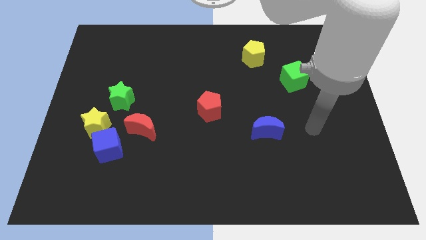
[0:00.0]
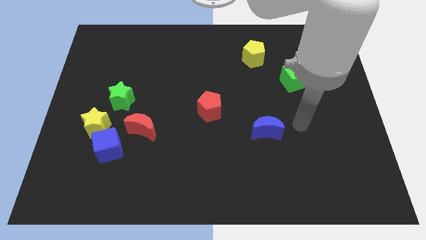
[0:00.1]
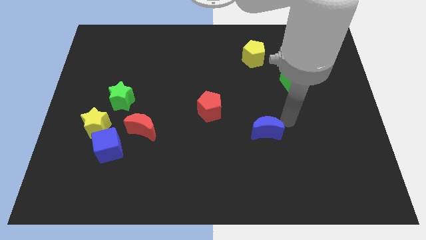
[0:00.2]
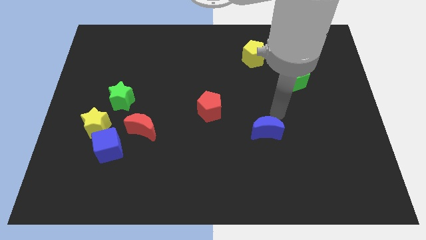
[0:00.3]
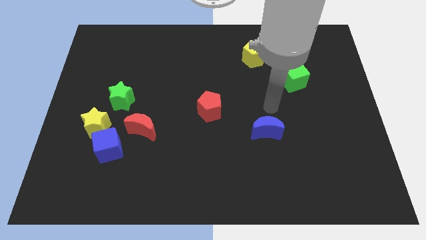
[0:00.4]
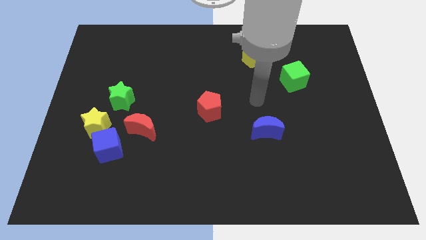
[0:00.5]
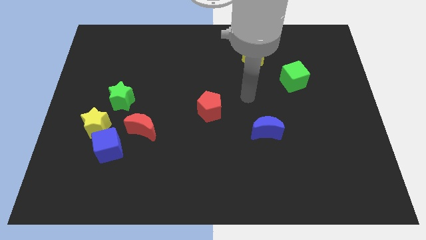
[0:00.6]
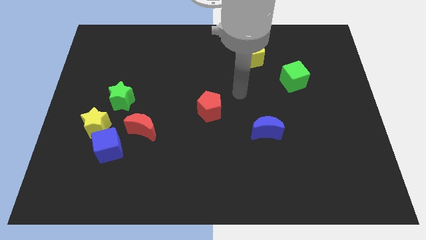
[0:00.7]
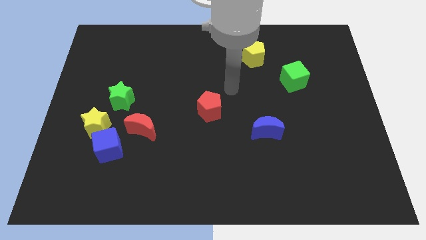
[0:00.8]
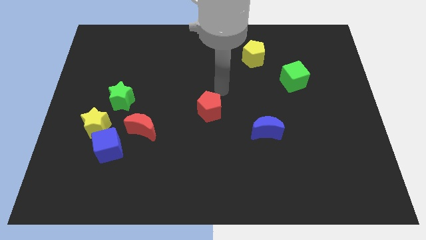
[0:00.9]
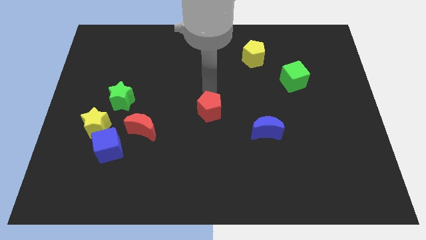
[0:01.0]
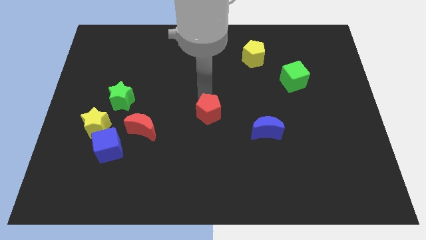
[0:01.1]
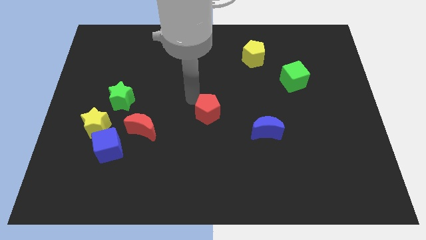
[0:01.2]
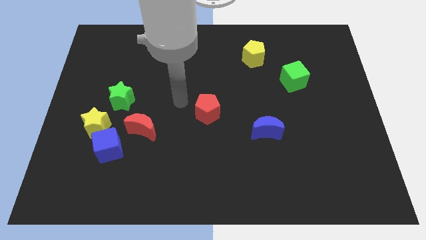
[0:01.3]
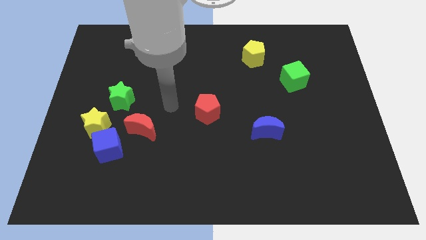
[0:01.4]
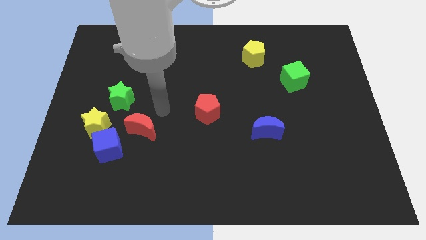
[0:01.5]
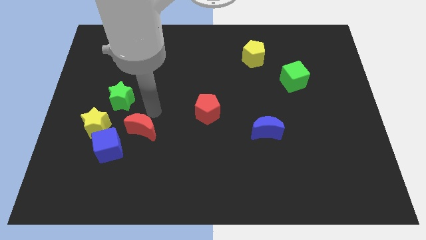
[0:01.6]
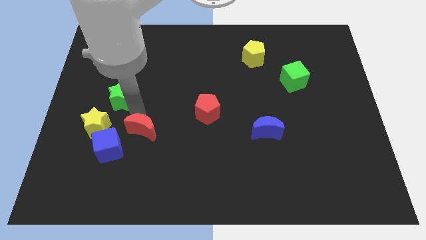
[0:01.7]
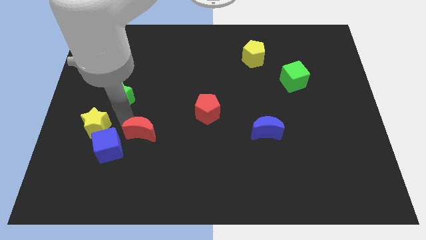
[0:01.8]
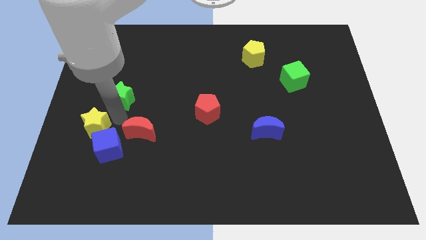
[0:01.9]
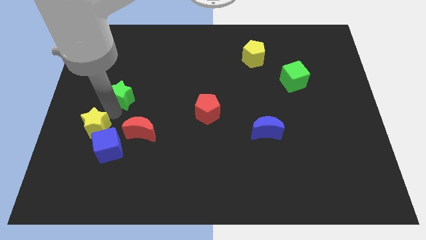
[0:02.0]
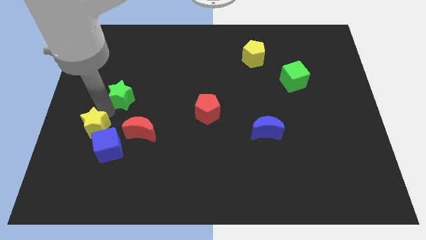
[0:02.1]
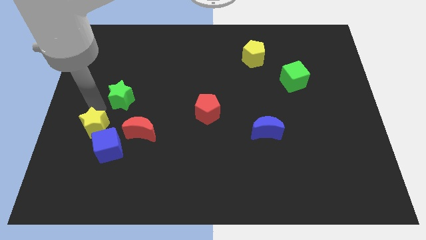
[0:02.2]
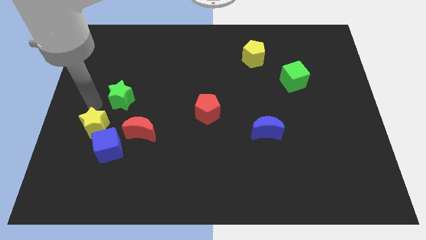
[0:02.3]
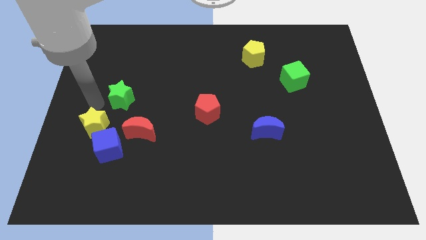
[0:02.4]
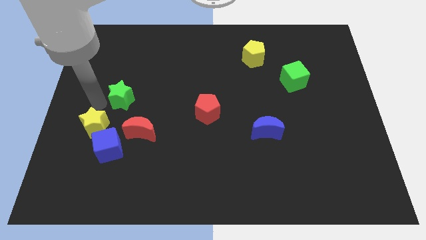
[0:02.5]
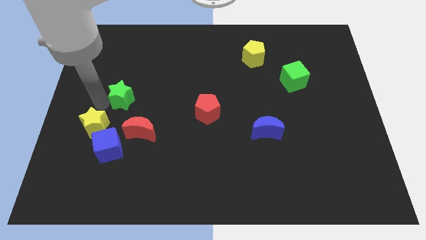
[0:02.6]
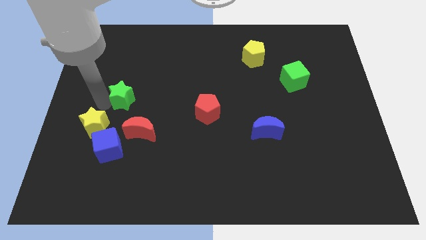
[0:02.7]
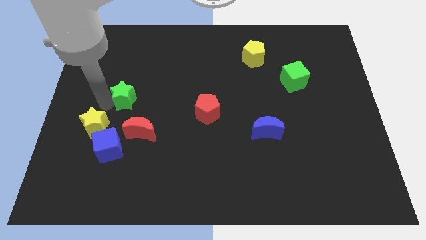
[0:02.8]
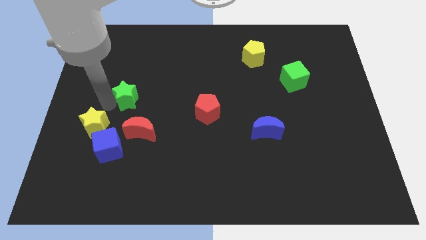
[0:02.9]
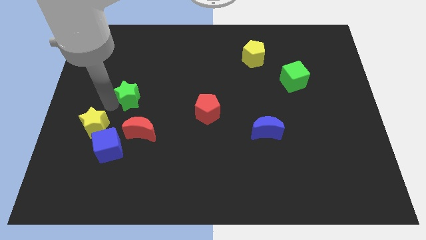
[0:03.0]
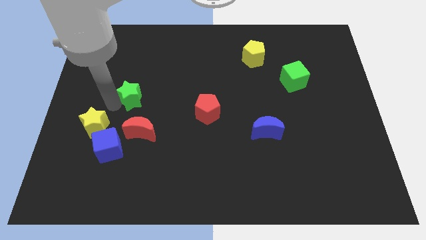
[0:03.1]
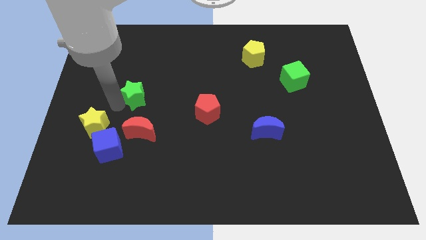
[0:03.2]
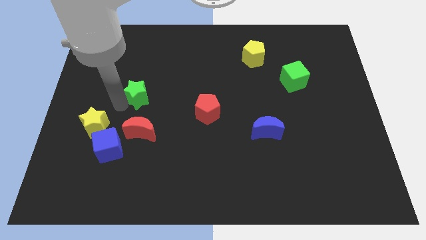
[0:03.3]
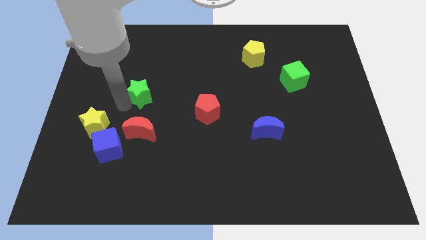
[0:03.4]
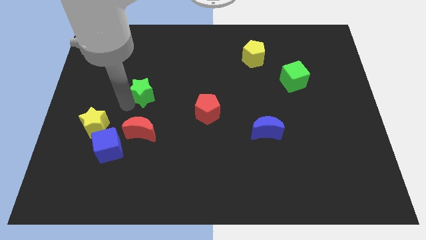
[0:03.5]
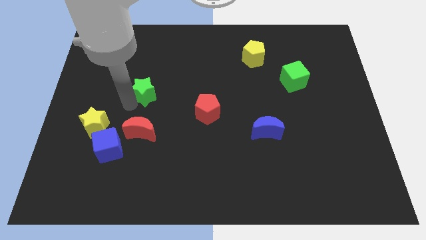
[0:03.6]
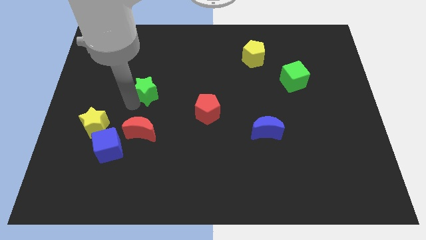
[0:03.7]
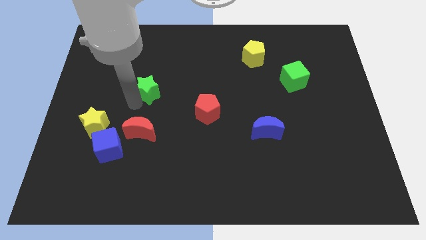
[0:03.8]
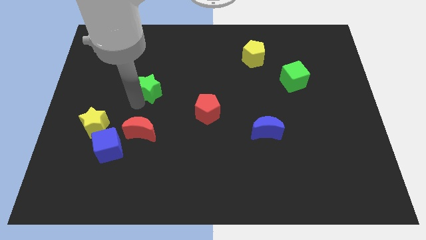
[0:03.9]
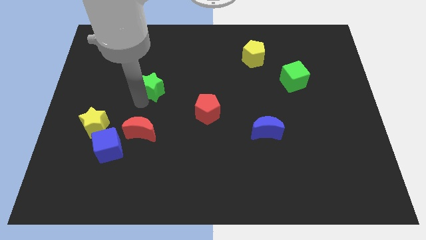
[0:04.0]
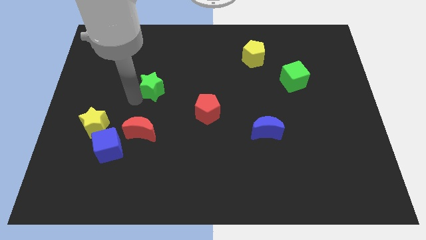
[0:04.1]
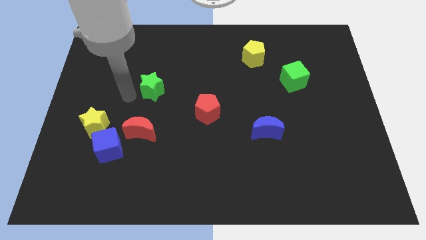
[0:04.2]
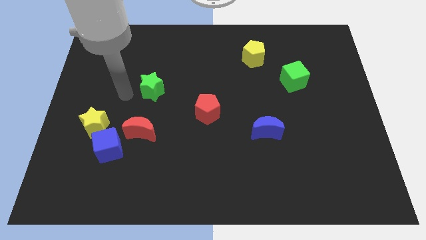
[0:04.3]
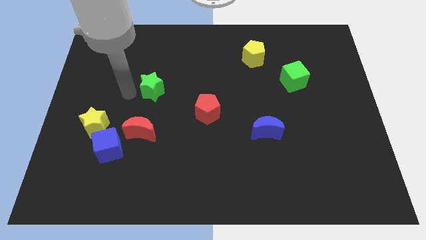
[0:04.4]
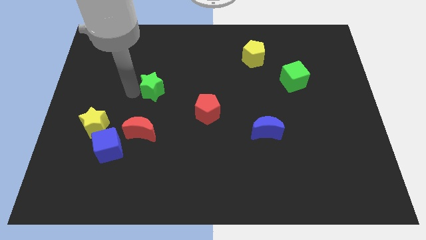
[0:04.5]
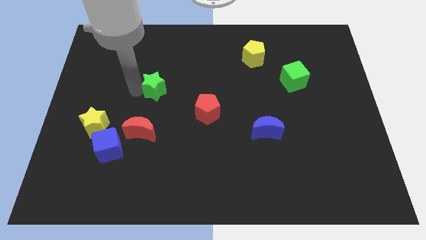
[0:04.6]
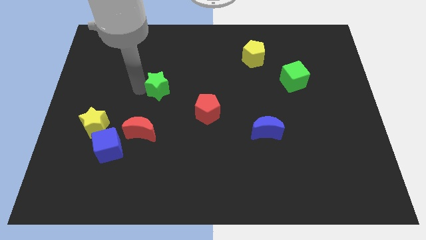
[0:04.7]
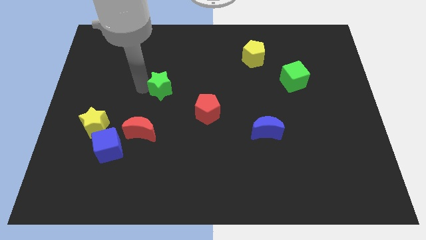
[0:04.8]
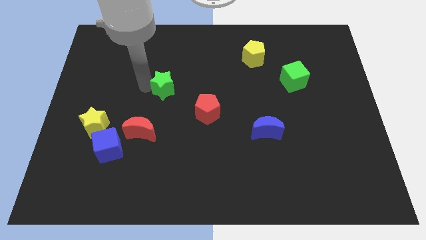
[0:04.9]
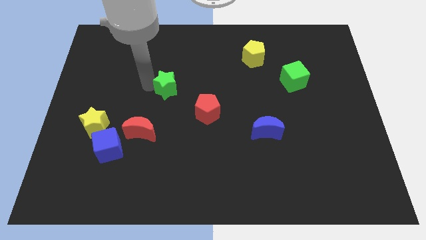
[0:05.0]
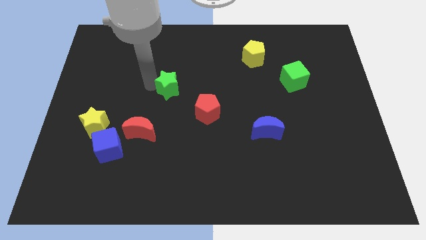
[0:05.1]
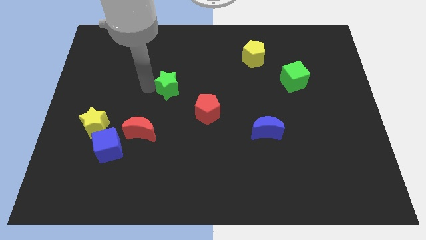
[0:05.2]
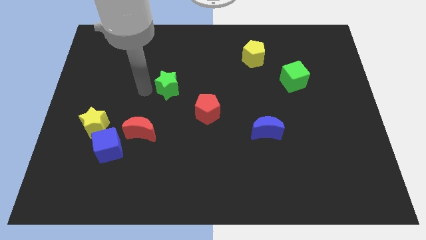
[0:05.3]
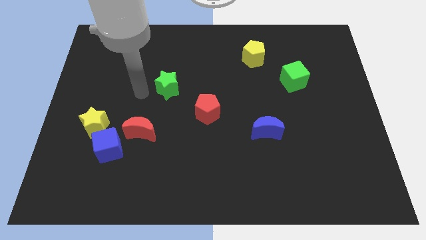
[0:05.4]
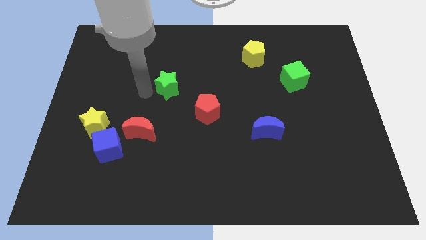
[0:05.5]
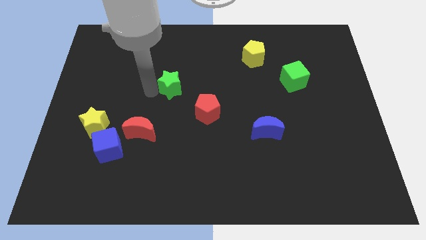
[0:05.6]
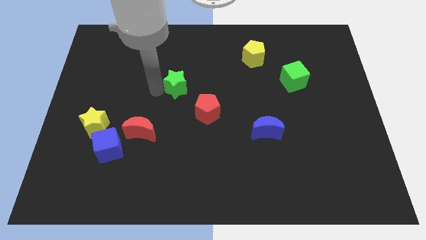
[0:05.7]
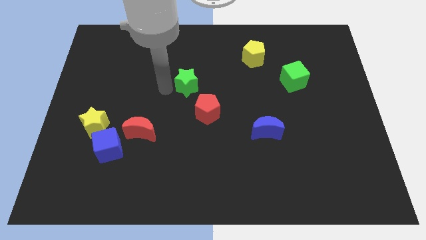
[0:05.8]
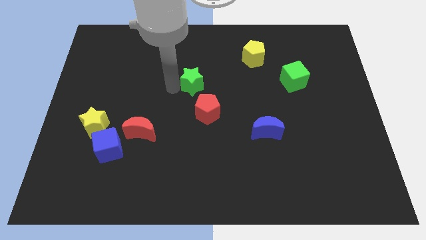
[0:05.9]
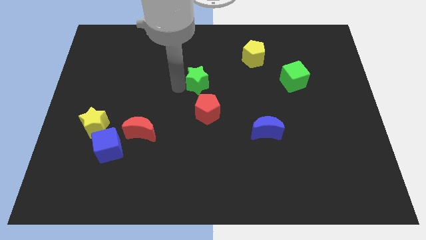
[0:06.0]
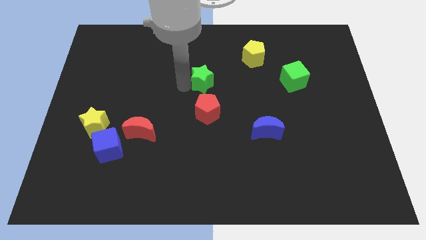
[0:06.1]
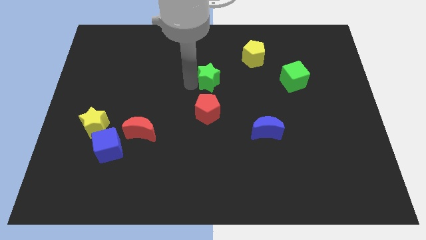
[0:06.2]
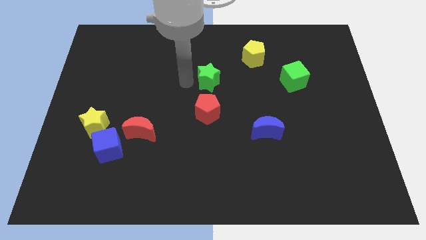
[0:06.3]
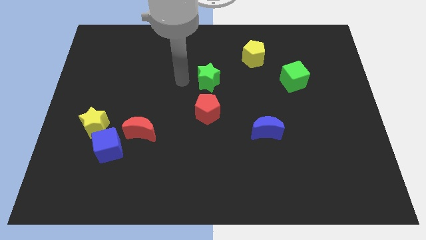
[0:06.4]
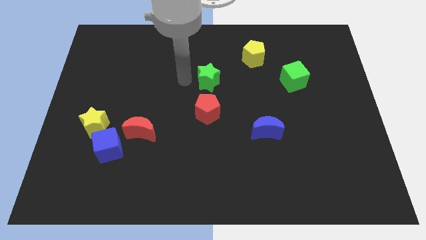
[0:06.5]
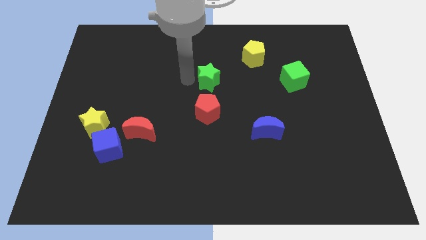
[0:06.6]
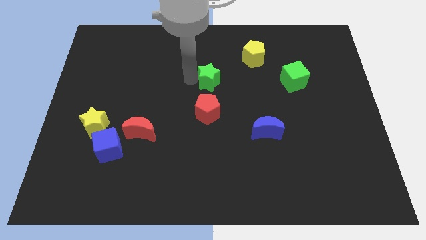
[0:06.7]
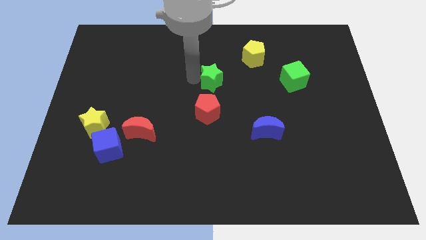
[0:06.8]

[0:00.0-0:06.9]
push the green star to the right

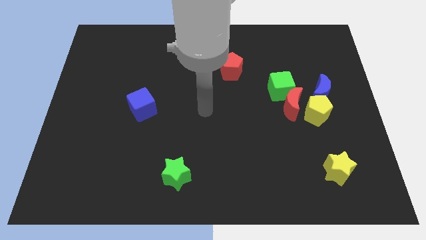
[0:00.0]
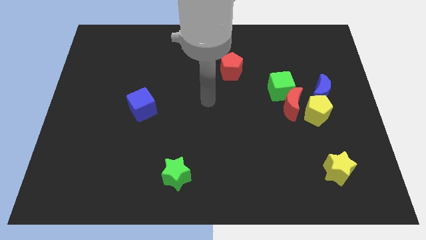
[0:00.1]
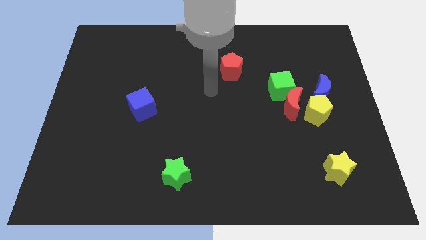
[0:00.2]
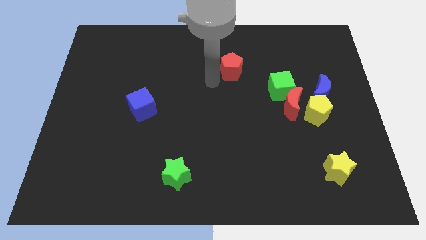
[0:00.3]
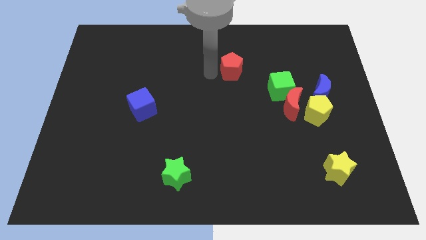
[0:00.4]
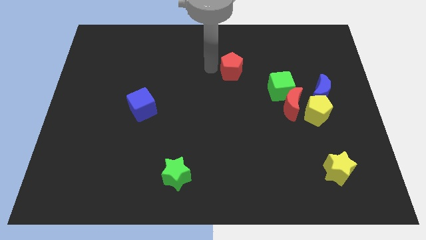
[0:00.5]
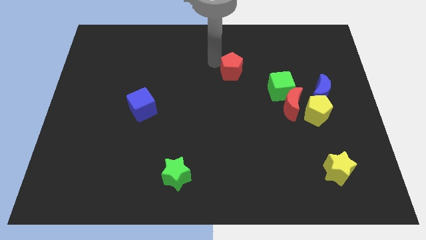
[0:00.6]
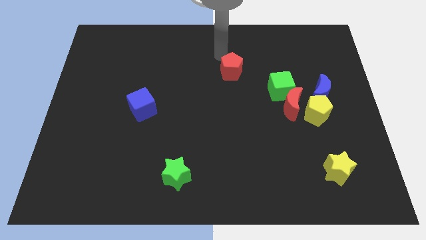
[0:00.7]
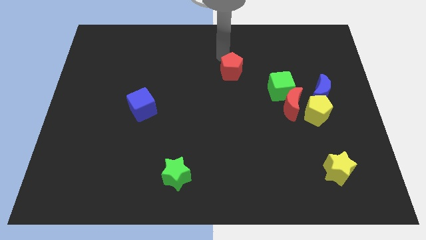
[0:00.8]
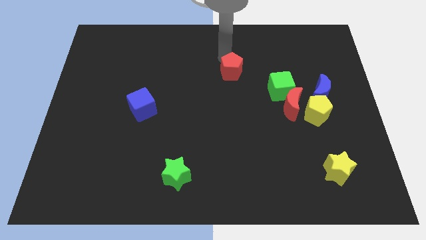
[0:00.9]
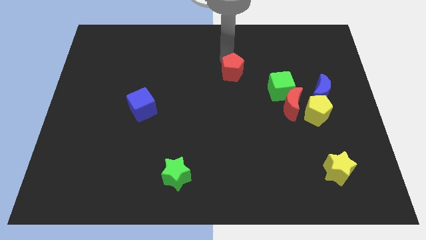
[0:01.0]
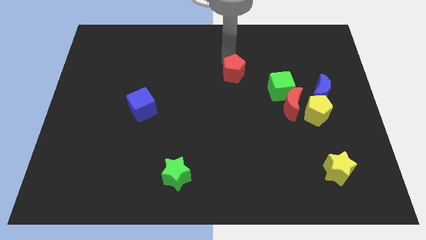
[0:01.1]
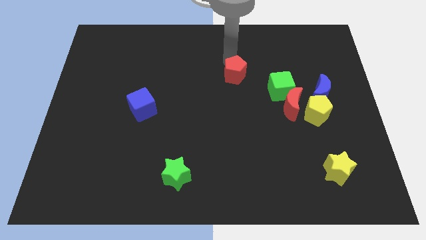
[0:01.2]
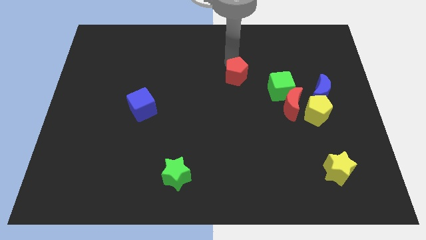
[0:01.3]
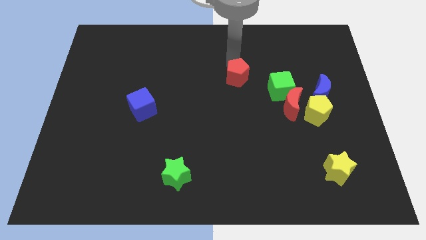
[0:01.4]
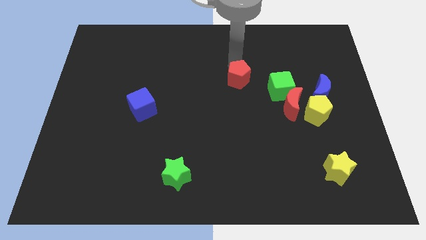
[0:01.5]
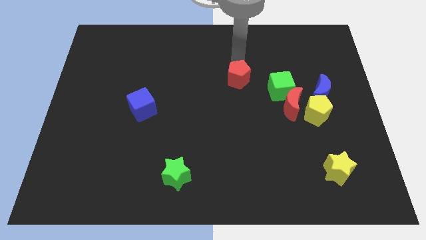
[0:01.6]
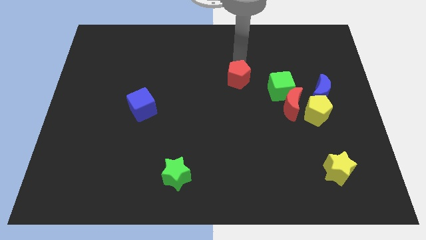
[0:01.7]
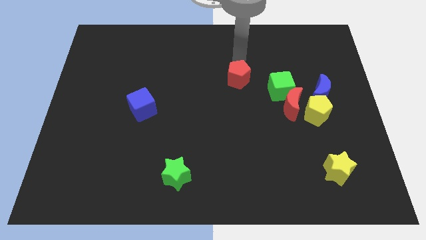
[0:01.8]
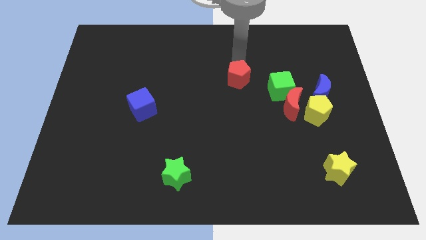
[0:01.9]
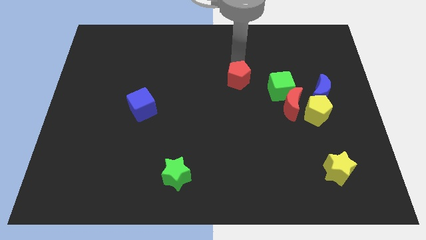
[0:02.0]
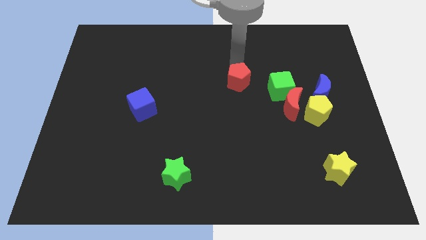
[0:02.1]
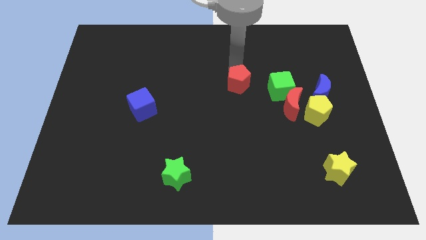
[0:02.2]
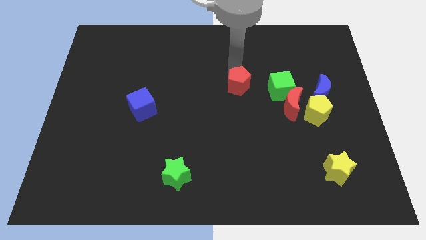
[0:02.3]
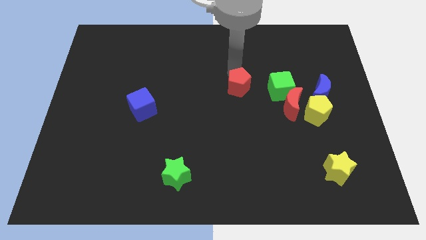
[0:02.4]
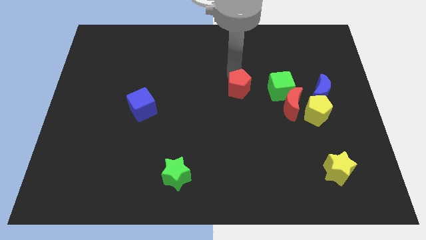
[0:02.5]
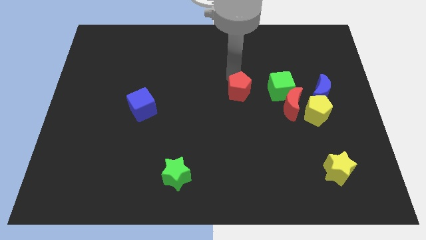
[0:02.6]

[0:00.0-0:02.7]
slide the red pentagon a little bit downwards
